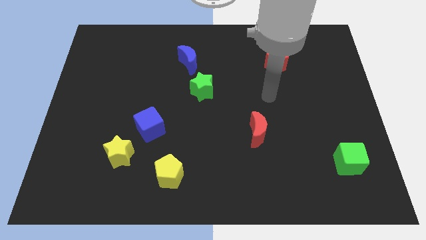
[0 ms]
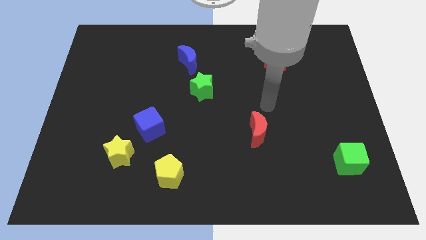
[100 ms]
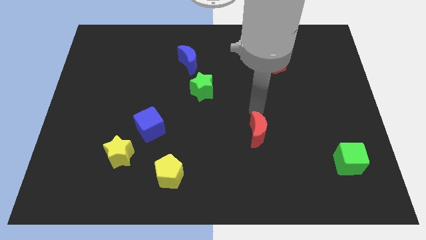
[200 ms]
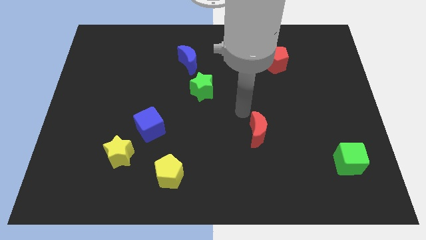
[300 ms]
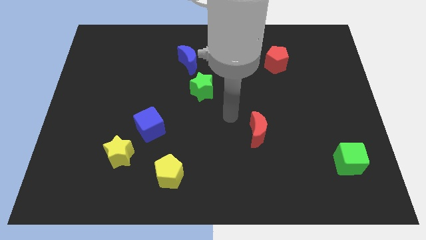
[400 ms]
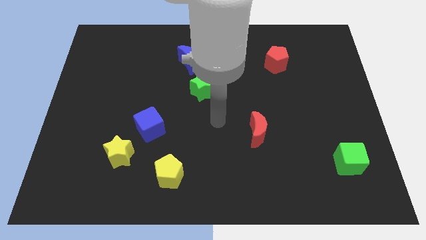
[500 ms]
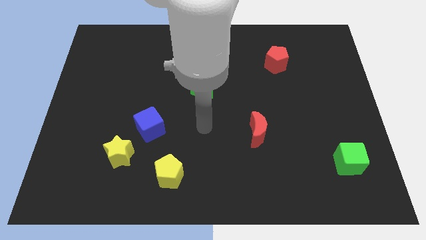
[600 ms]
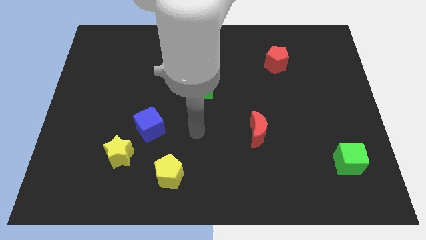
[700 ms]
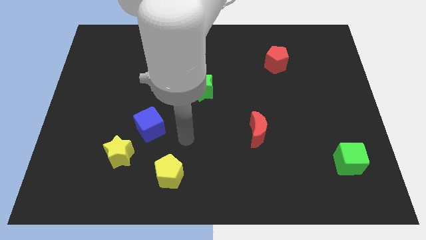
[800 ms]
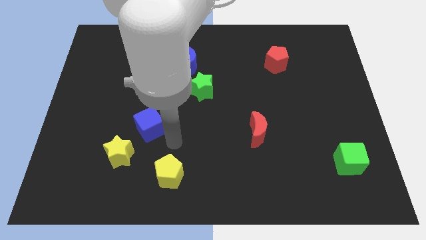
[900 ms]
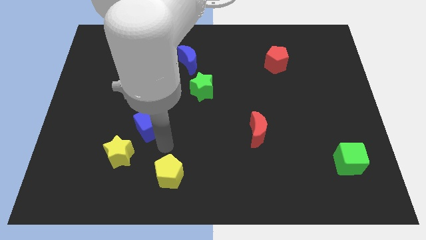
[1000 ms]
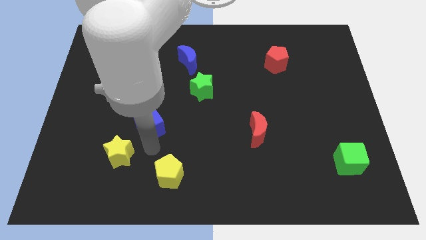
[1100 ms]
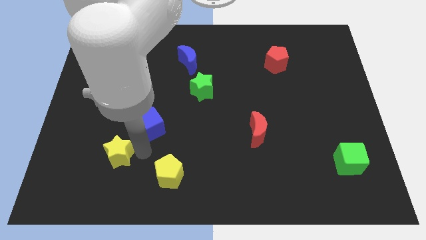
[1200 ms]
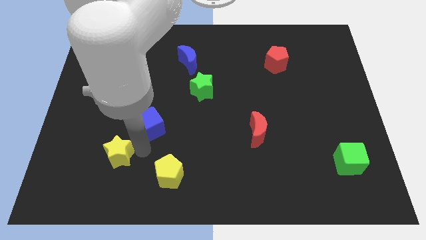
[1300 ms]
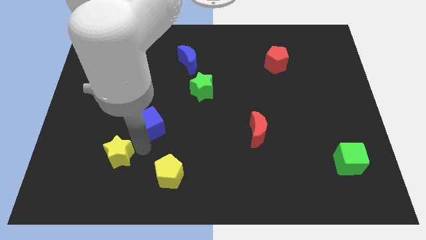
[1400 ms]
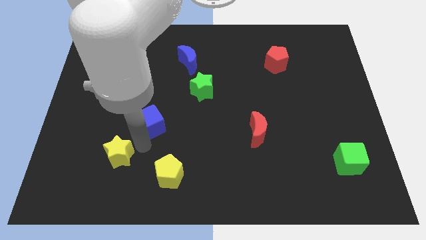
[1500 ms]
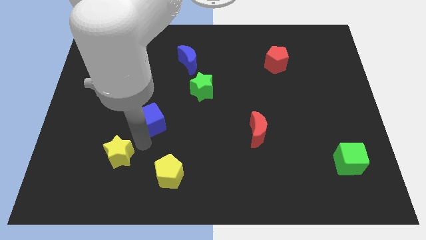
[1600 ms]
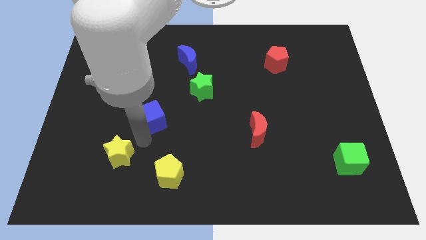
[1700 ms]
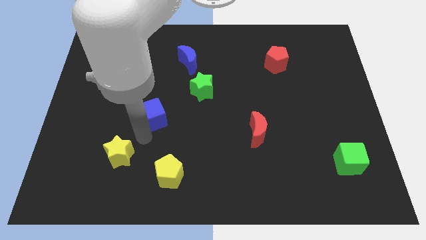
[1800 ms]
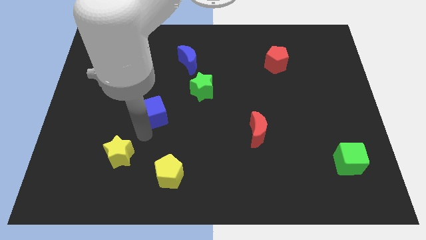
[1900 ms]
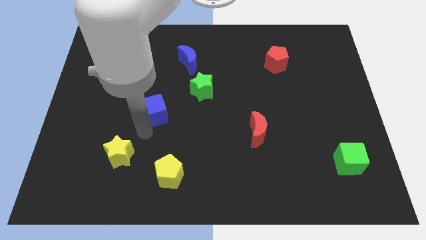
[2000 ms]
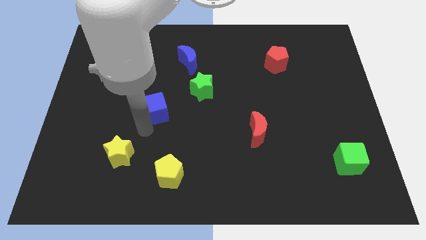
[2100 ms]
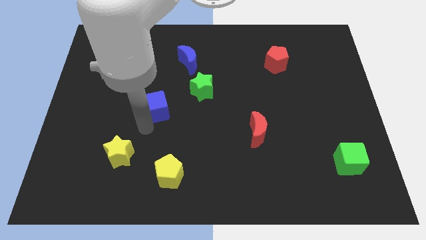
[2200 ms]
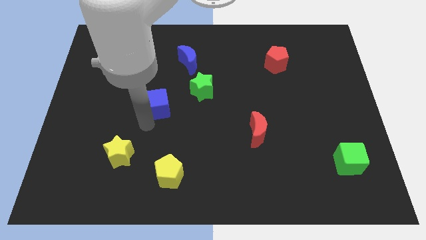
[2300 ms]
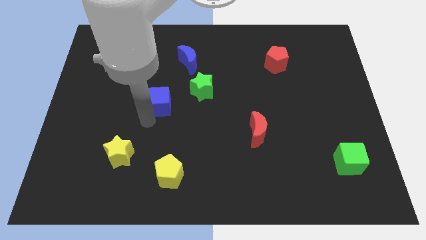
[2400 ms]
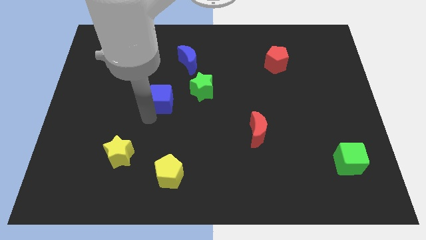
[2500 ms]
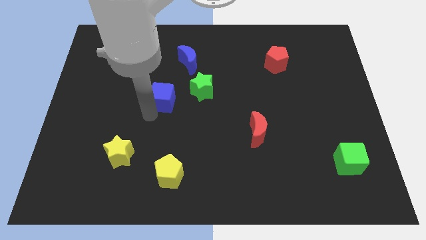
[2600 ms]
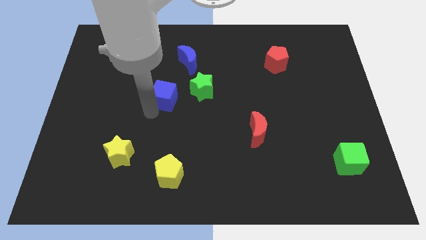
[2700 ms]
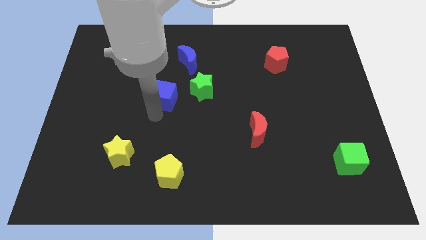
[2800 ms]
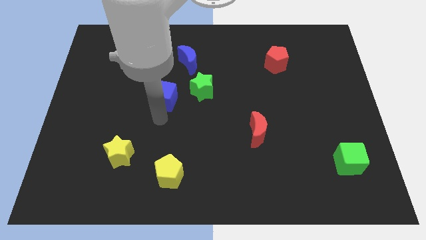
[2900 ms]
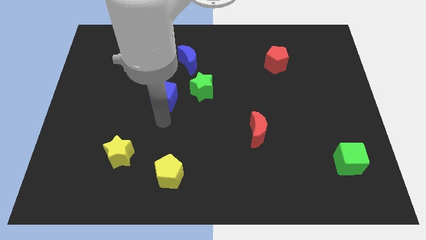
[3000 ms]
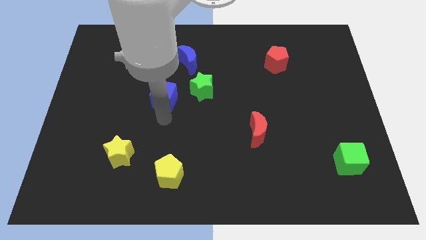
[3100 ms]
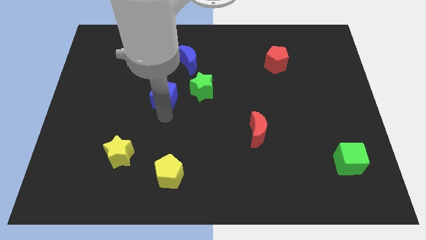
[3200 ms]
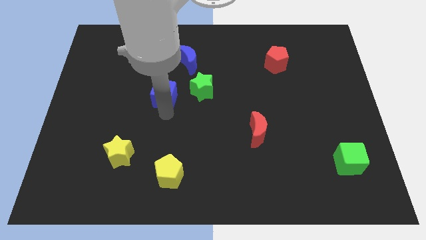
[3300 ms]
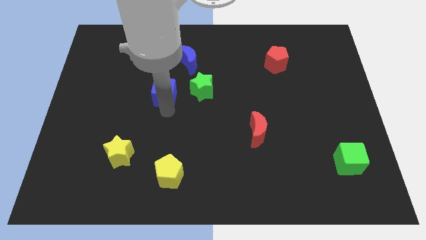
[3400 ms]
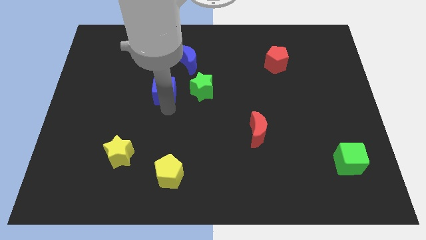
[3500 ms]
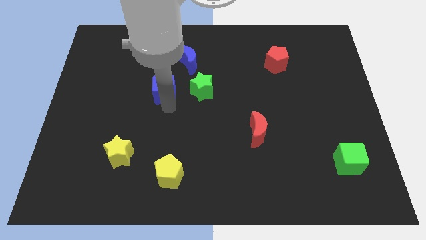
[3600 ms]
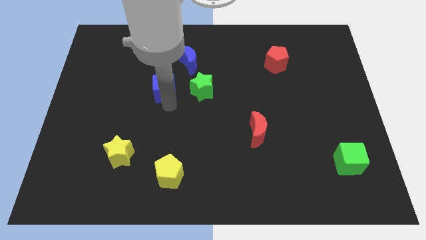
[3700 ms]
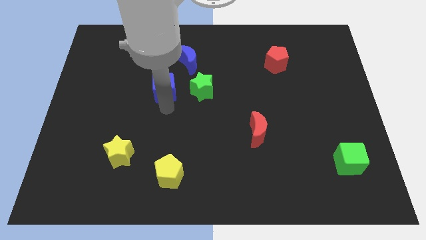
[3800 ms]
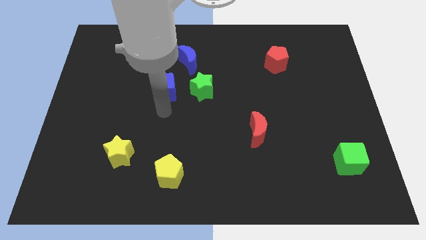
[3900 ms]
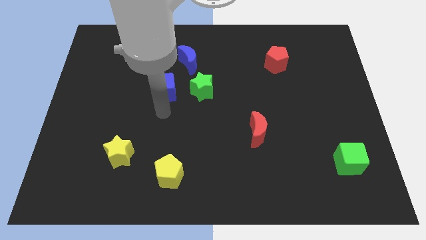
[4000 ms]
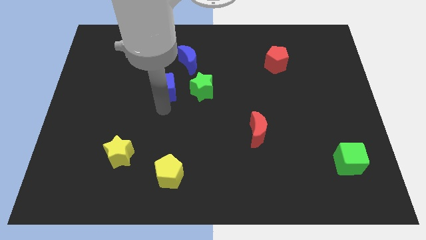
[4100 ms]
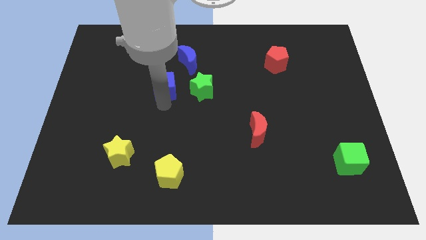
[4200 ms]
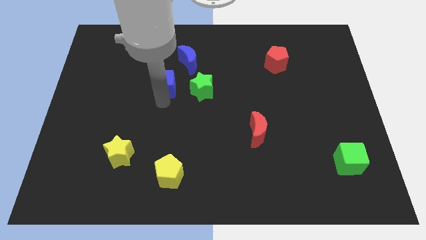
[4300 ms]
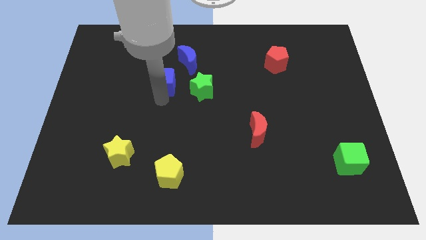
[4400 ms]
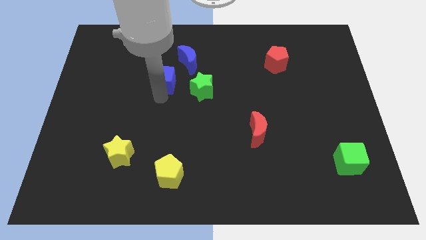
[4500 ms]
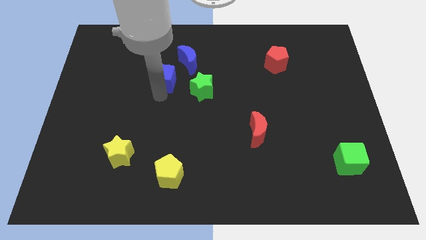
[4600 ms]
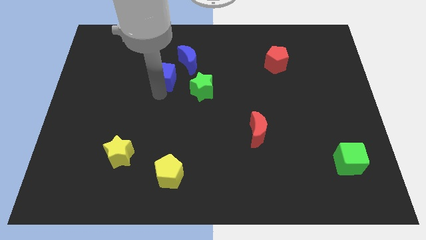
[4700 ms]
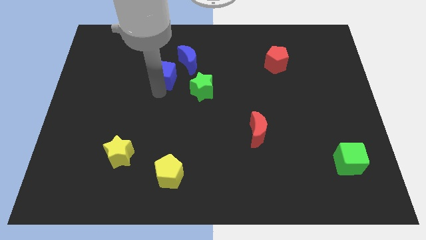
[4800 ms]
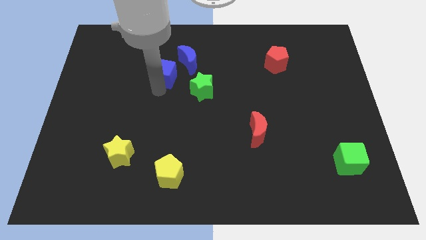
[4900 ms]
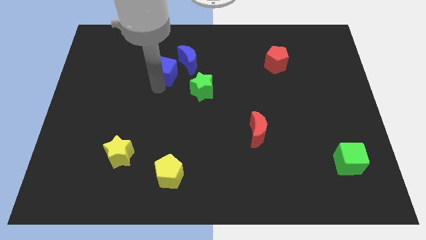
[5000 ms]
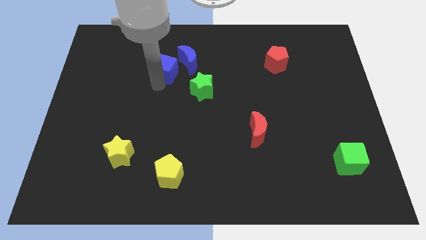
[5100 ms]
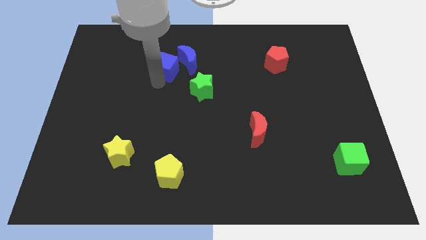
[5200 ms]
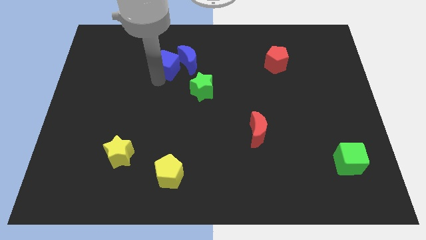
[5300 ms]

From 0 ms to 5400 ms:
push the blue cube towards the blue moon

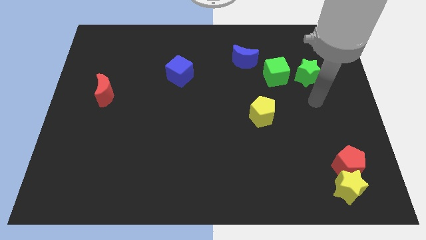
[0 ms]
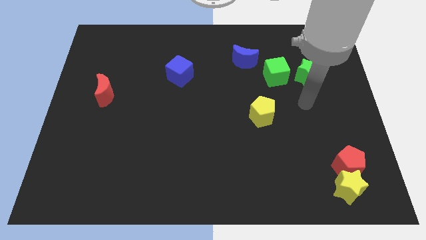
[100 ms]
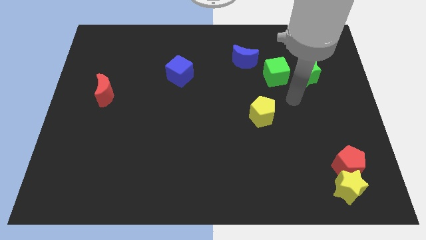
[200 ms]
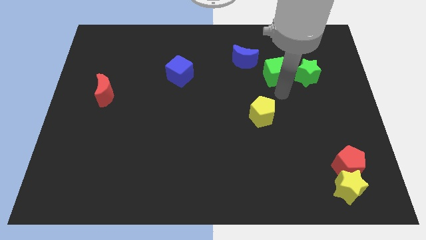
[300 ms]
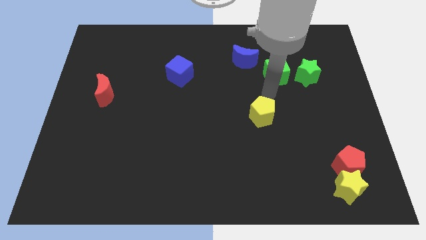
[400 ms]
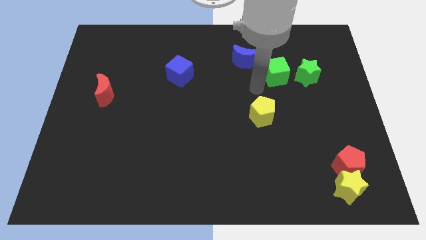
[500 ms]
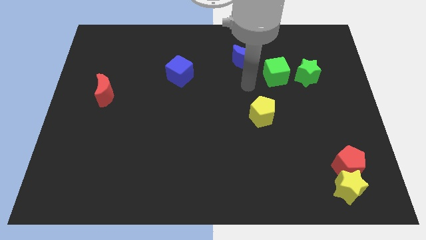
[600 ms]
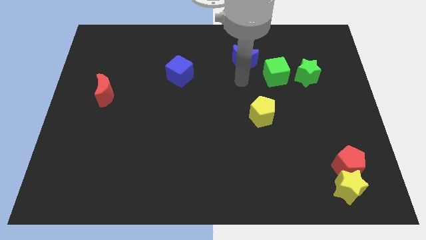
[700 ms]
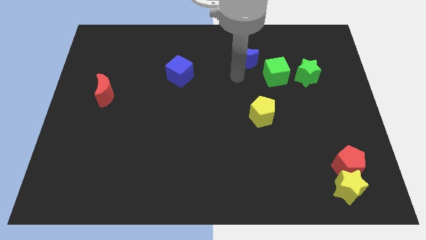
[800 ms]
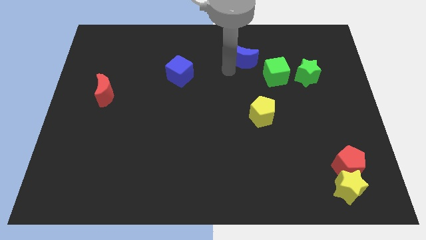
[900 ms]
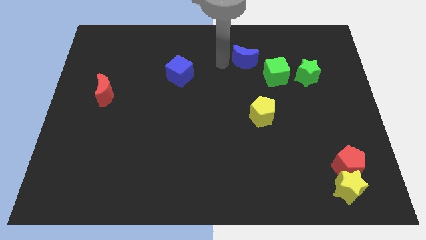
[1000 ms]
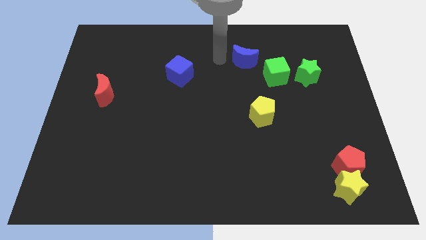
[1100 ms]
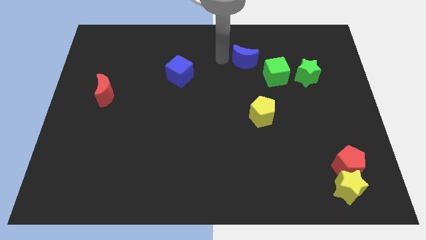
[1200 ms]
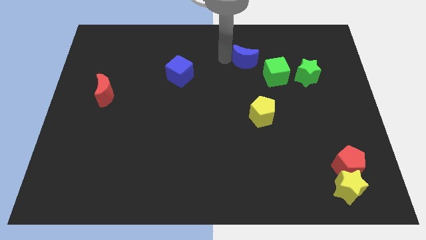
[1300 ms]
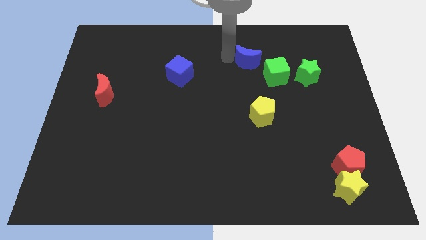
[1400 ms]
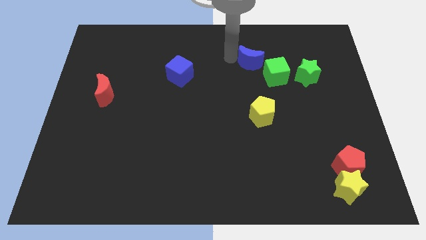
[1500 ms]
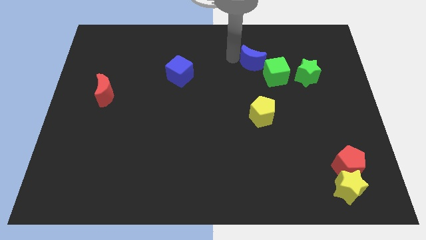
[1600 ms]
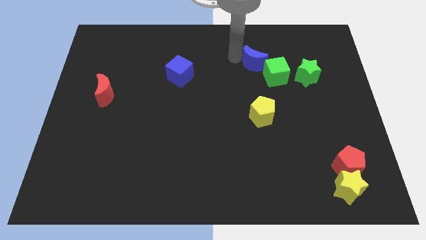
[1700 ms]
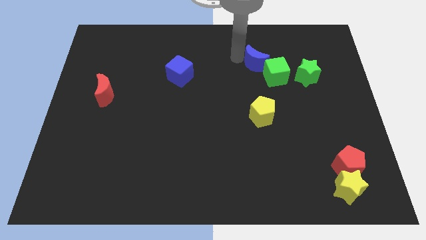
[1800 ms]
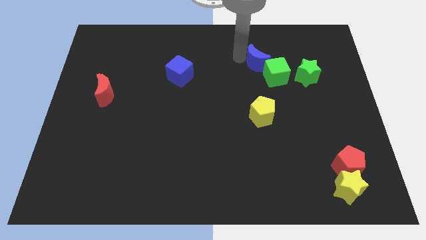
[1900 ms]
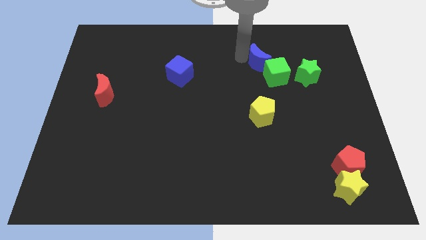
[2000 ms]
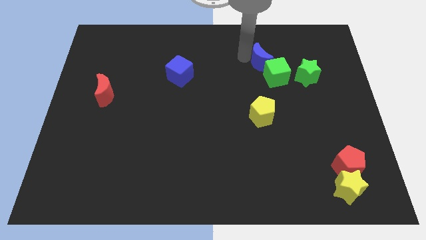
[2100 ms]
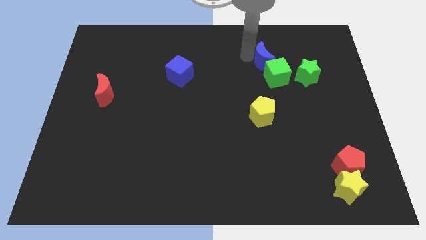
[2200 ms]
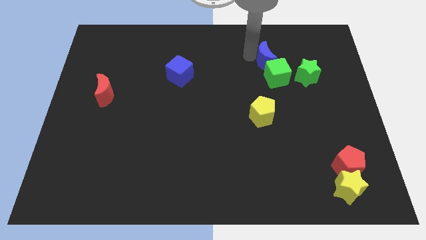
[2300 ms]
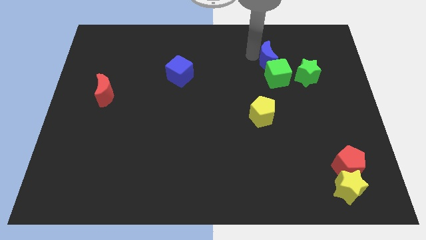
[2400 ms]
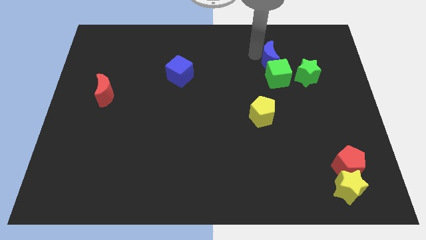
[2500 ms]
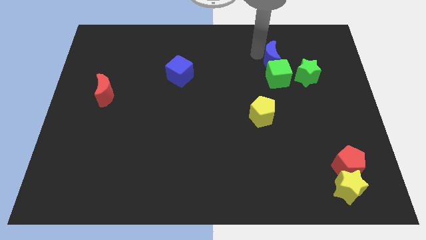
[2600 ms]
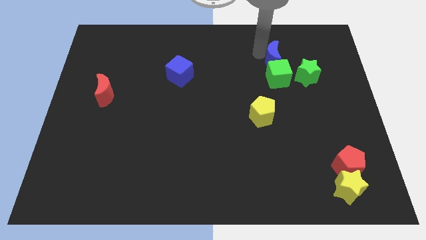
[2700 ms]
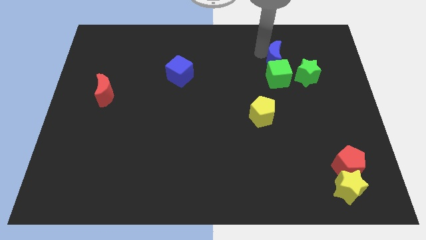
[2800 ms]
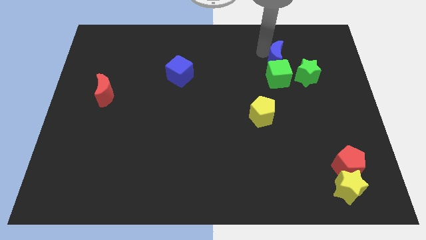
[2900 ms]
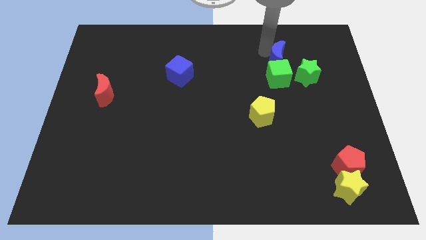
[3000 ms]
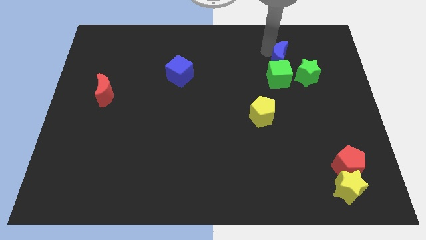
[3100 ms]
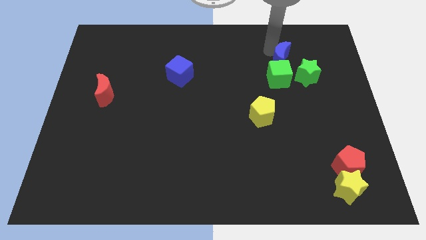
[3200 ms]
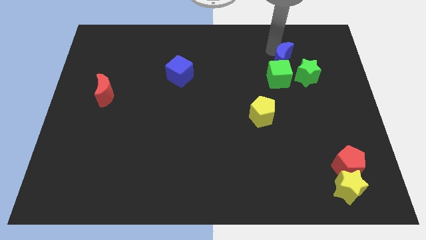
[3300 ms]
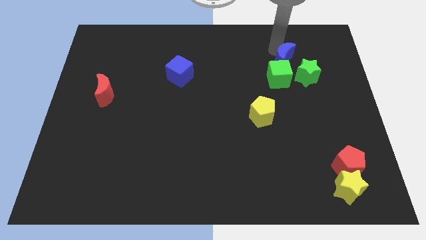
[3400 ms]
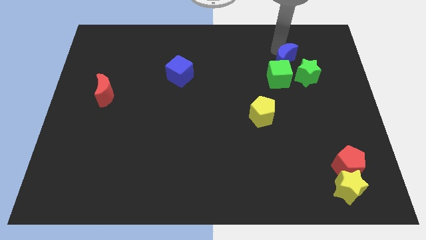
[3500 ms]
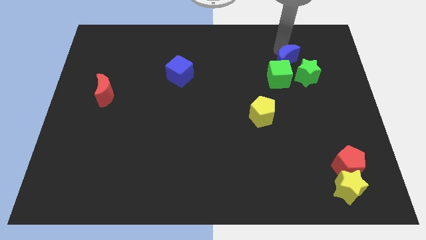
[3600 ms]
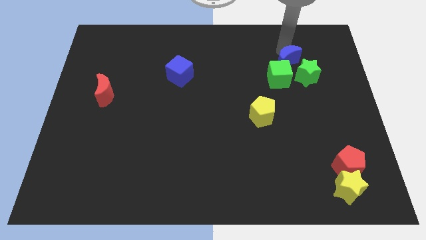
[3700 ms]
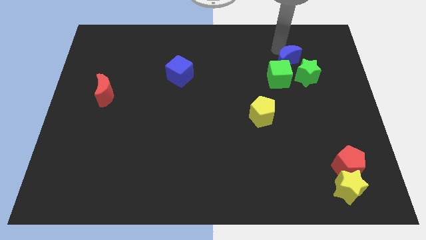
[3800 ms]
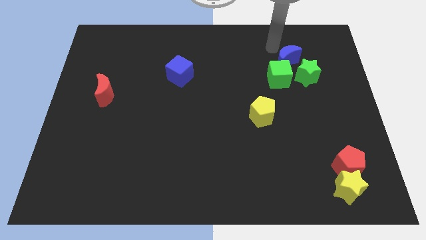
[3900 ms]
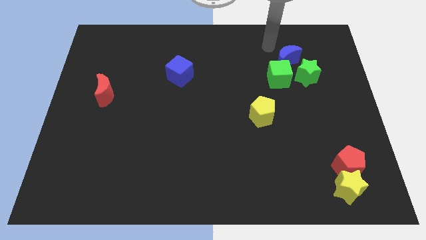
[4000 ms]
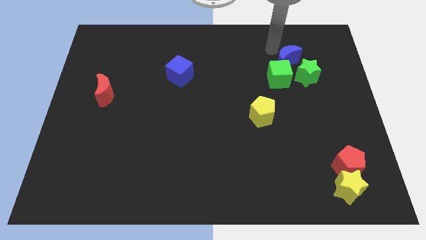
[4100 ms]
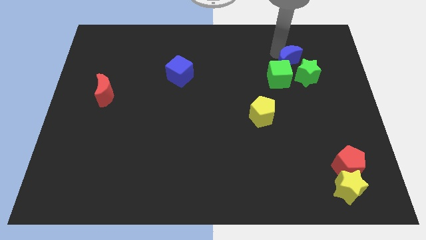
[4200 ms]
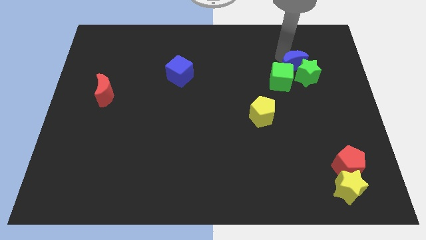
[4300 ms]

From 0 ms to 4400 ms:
put the blue moon towards the green star
